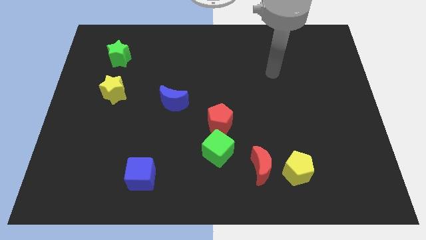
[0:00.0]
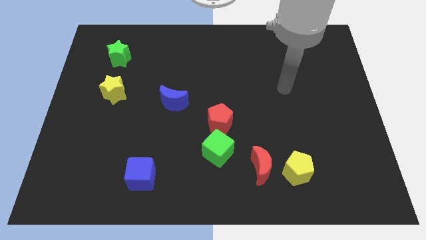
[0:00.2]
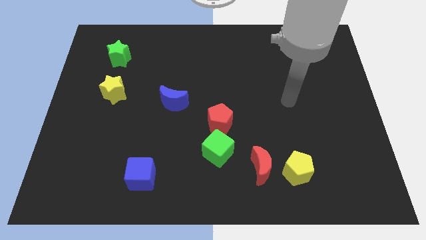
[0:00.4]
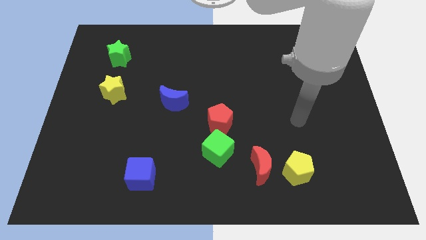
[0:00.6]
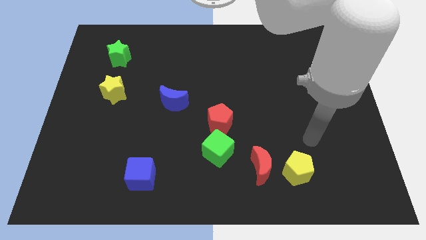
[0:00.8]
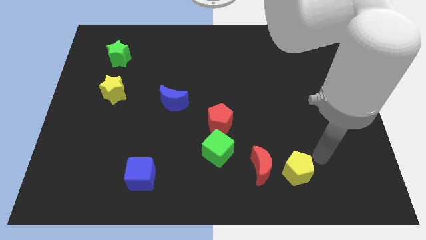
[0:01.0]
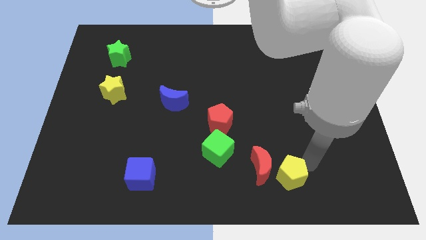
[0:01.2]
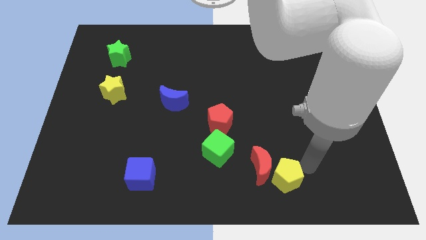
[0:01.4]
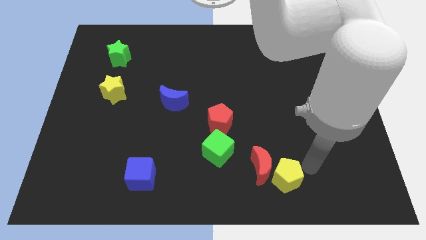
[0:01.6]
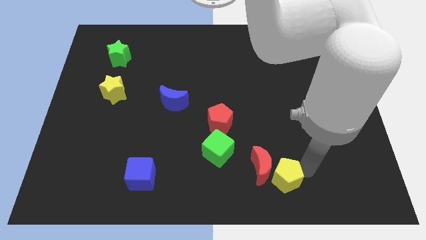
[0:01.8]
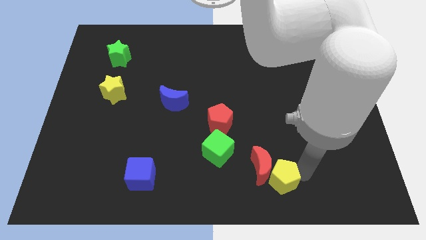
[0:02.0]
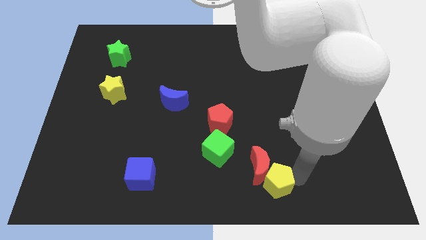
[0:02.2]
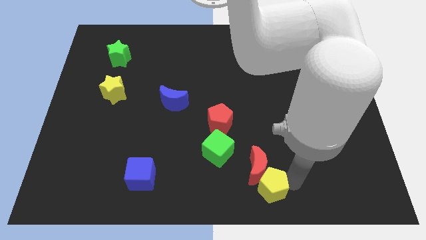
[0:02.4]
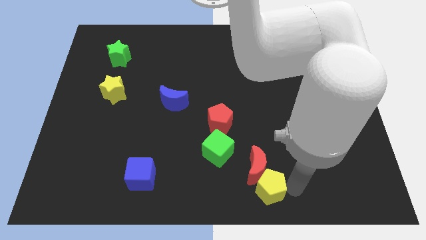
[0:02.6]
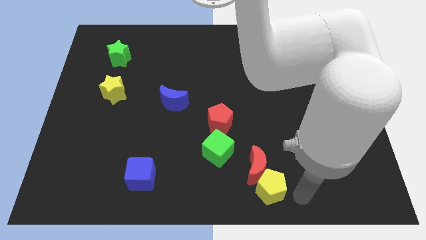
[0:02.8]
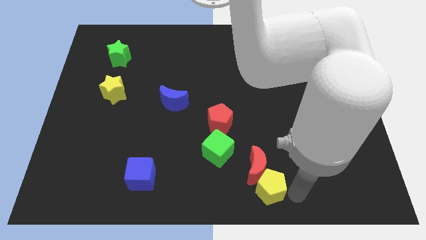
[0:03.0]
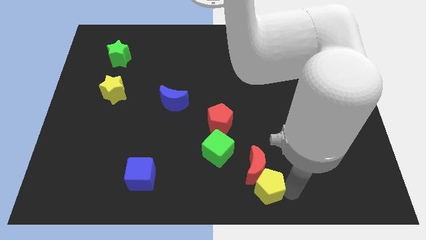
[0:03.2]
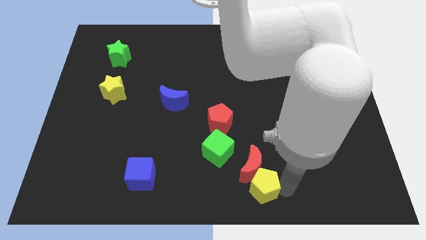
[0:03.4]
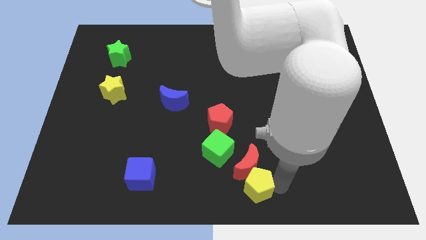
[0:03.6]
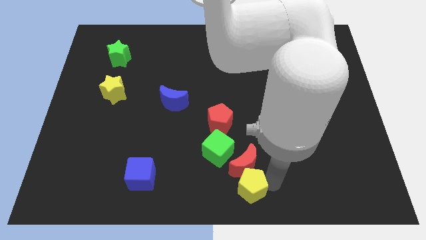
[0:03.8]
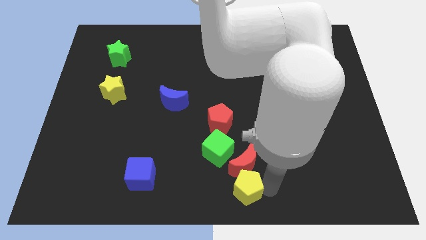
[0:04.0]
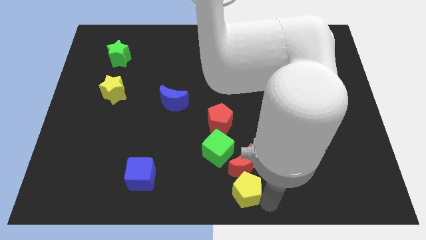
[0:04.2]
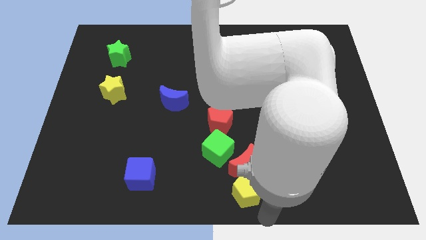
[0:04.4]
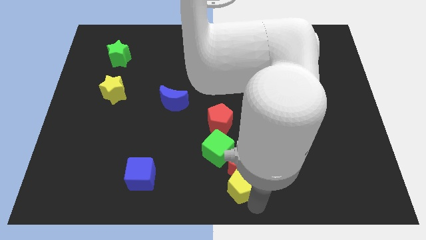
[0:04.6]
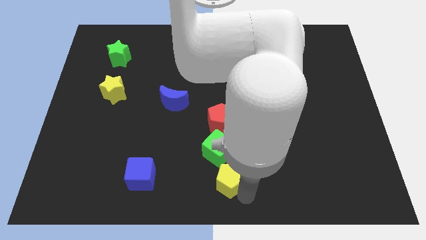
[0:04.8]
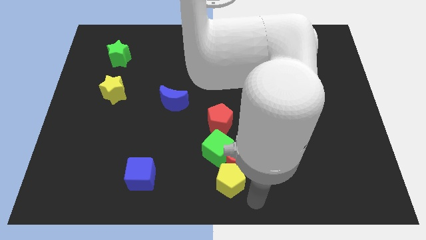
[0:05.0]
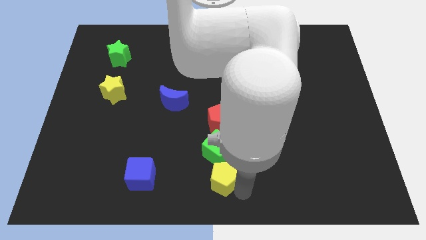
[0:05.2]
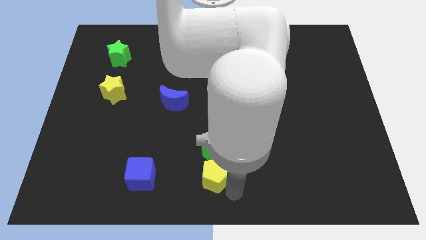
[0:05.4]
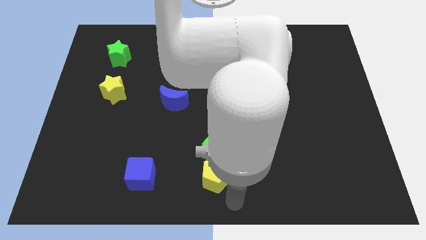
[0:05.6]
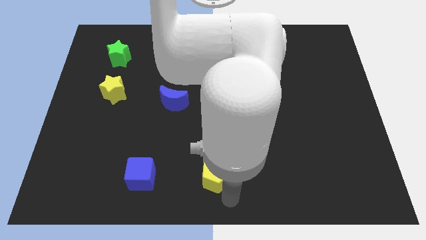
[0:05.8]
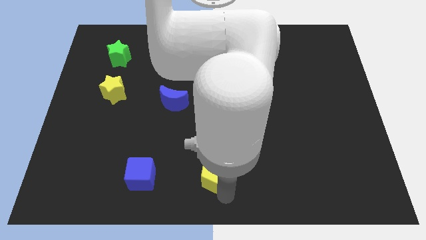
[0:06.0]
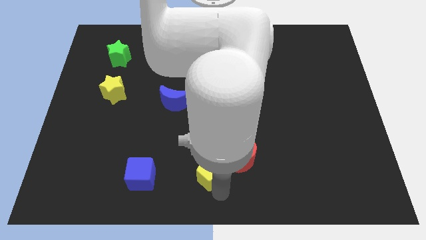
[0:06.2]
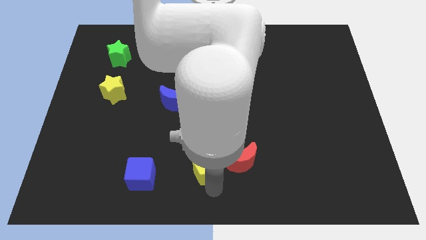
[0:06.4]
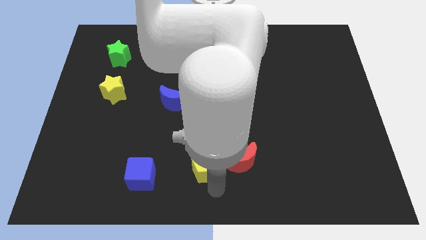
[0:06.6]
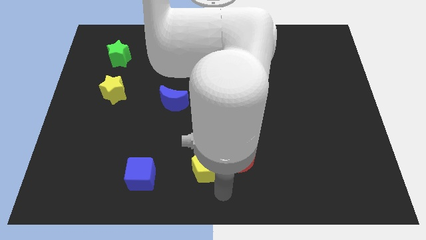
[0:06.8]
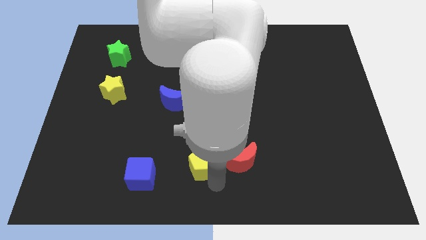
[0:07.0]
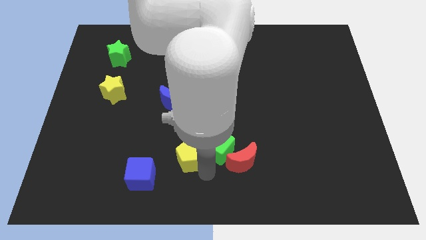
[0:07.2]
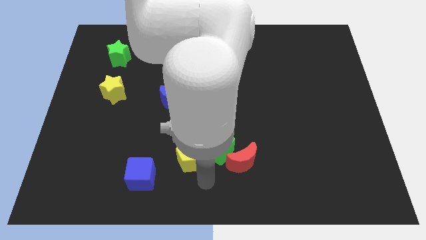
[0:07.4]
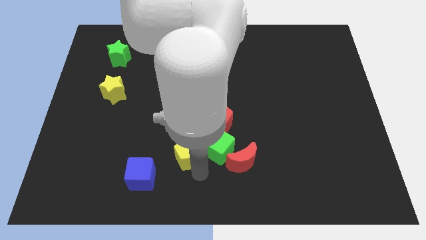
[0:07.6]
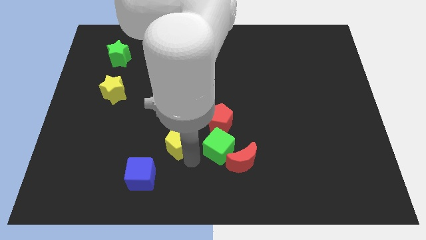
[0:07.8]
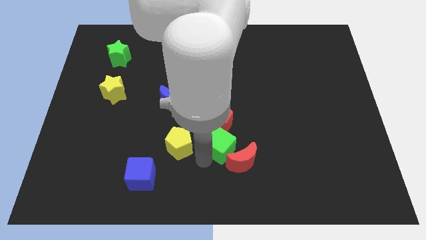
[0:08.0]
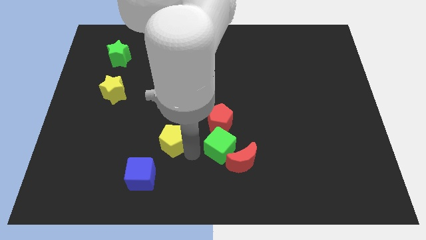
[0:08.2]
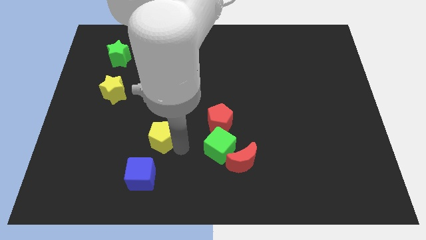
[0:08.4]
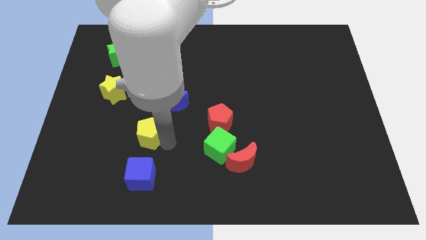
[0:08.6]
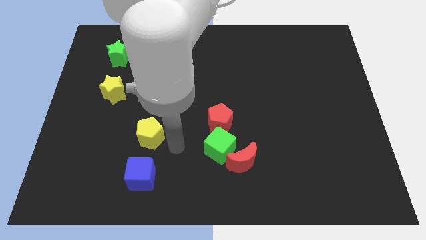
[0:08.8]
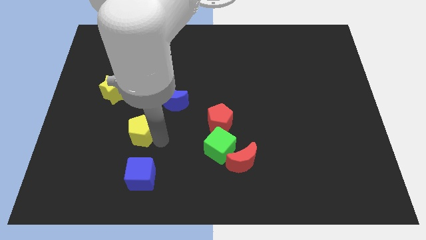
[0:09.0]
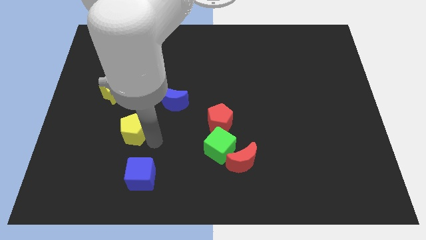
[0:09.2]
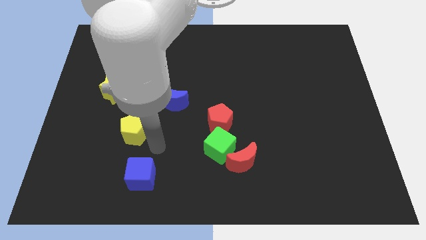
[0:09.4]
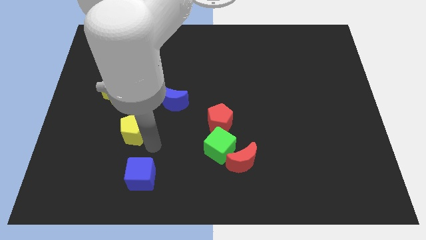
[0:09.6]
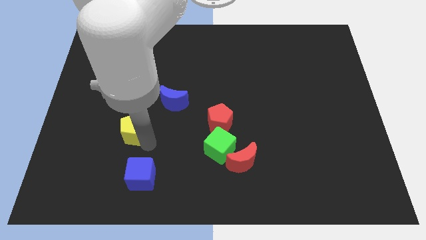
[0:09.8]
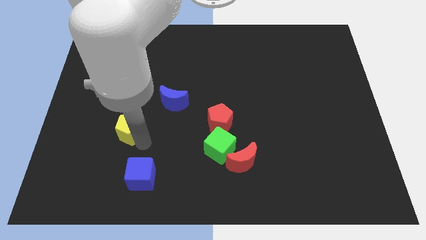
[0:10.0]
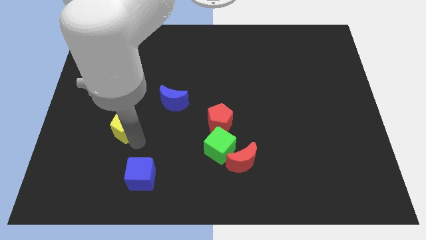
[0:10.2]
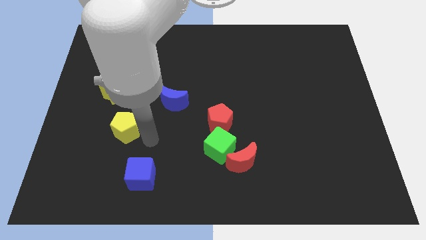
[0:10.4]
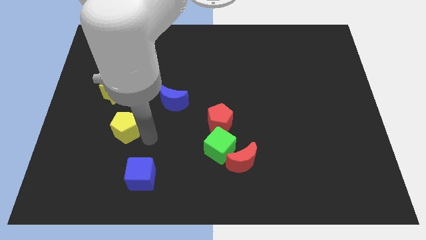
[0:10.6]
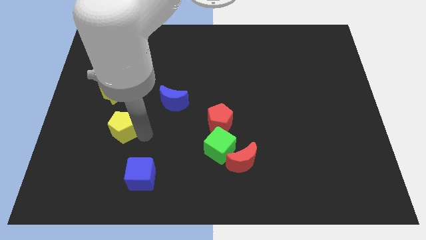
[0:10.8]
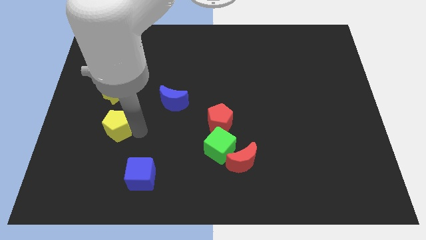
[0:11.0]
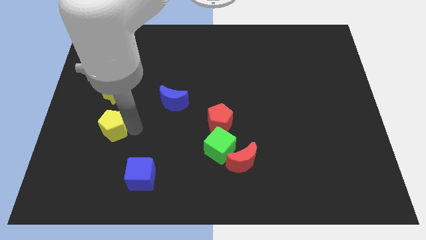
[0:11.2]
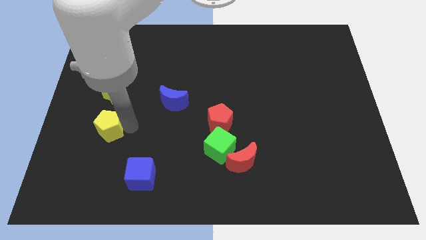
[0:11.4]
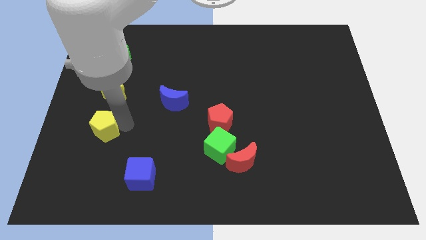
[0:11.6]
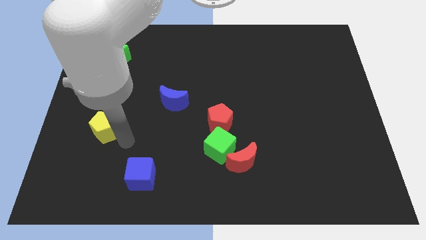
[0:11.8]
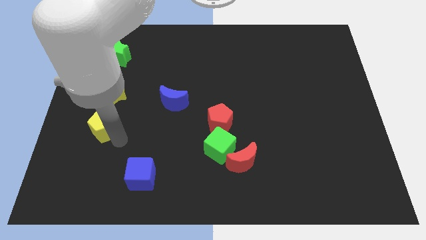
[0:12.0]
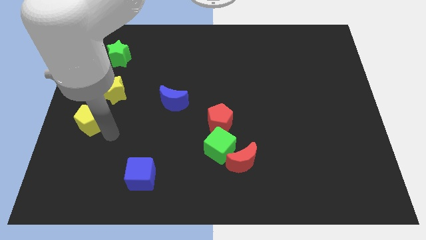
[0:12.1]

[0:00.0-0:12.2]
put the yellow pentagon to the left side of the board
